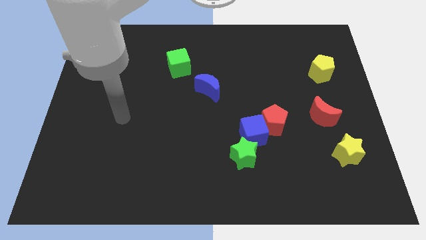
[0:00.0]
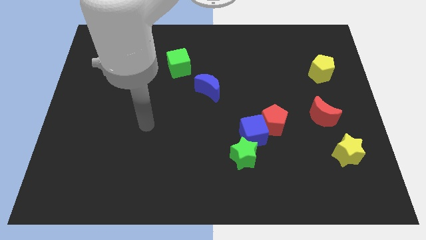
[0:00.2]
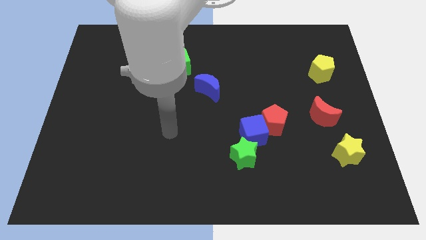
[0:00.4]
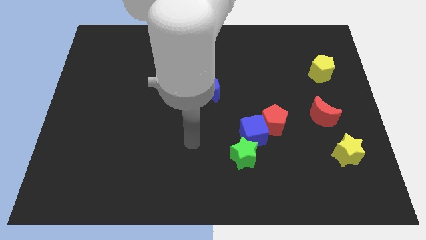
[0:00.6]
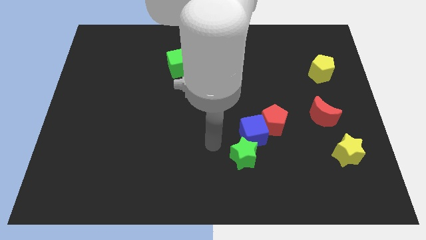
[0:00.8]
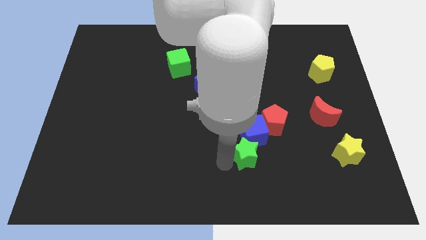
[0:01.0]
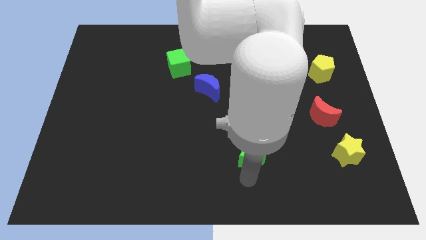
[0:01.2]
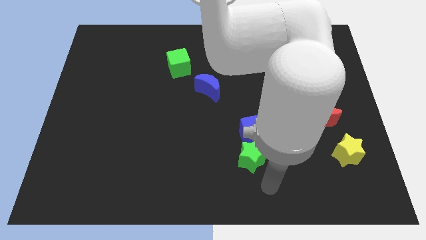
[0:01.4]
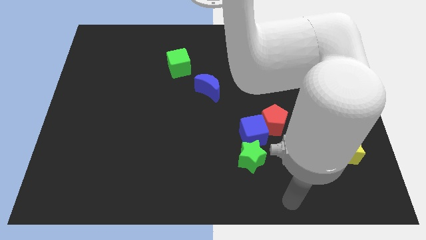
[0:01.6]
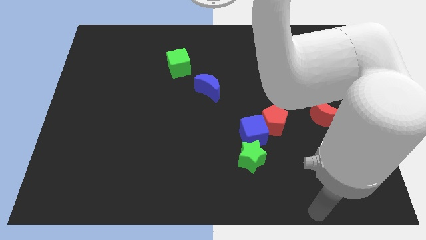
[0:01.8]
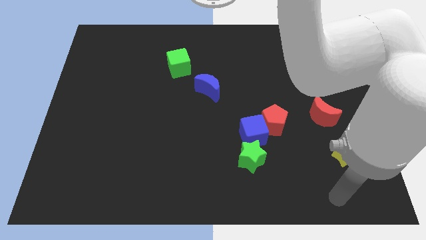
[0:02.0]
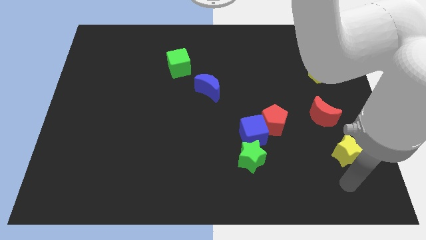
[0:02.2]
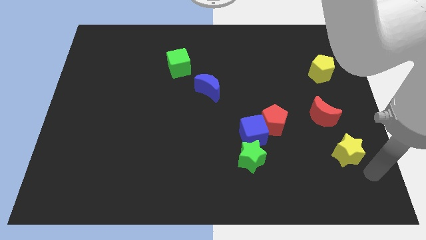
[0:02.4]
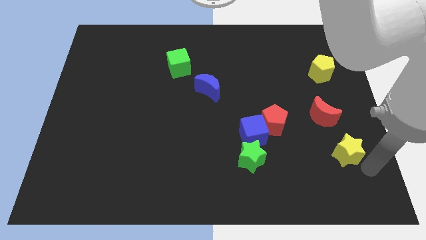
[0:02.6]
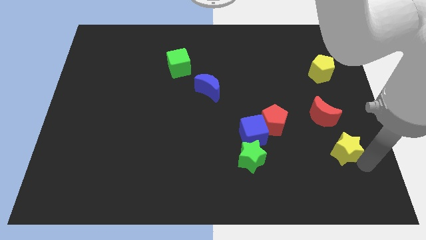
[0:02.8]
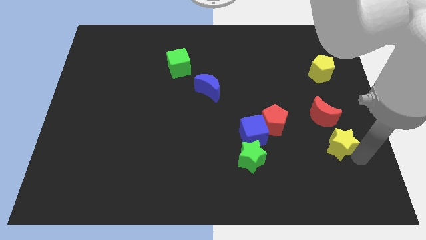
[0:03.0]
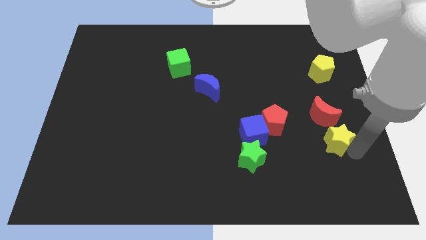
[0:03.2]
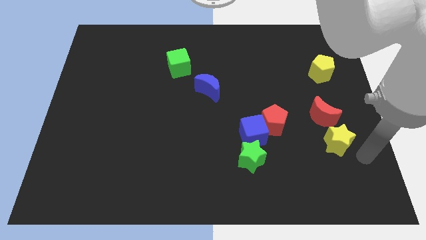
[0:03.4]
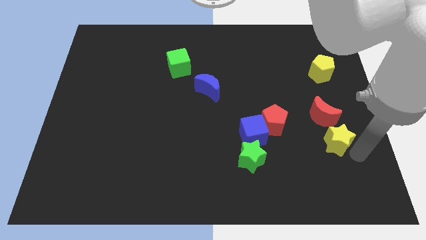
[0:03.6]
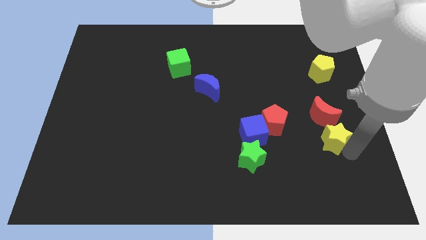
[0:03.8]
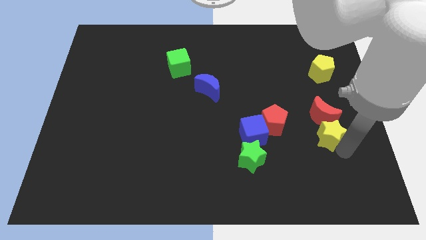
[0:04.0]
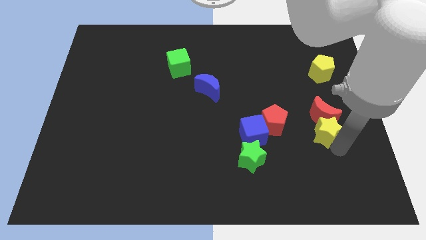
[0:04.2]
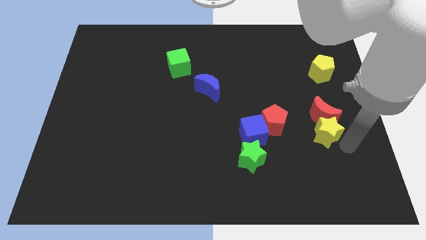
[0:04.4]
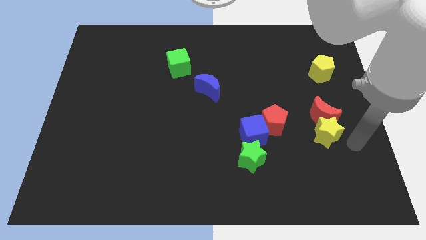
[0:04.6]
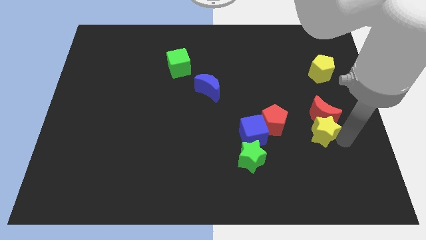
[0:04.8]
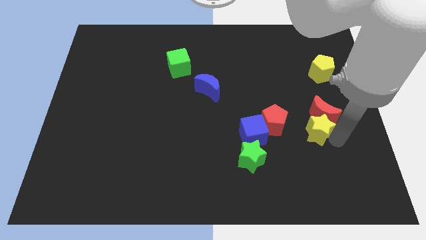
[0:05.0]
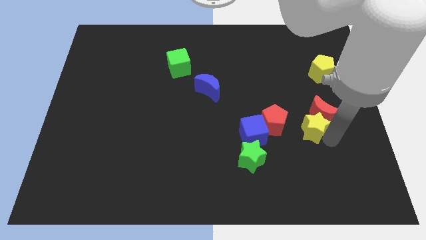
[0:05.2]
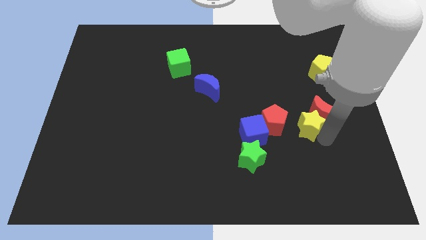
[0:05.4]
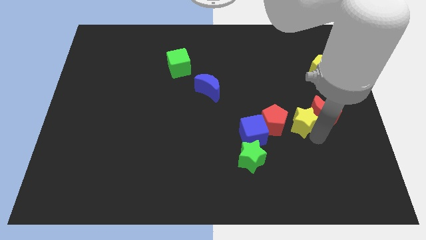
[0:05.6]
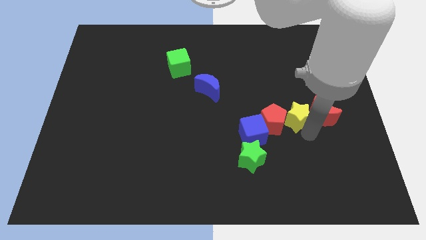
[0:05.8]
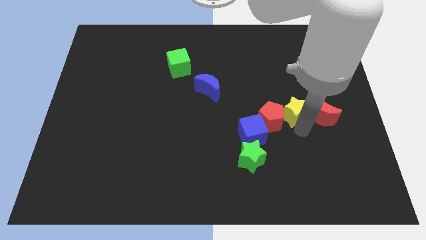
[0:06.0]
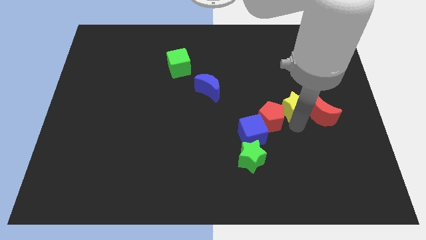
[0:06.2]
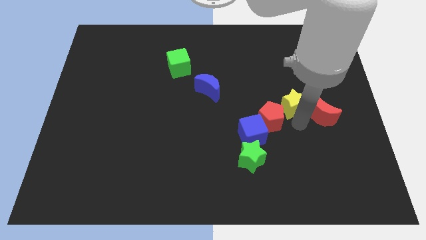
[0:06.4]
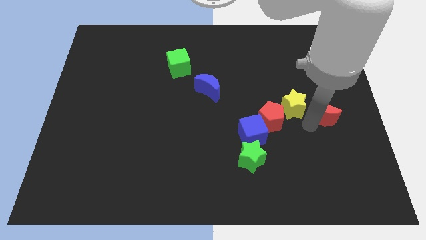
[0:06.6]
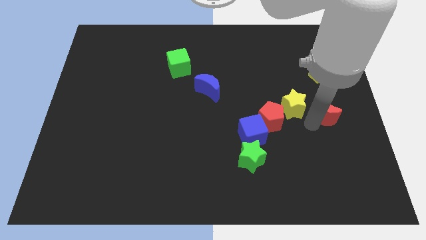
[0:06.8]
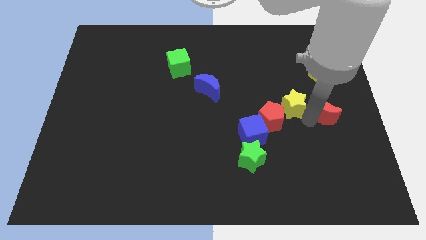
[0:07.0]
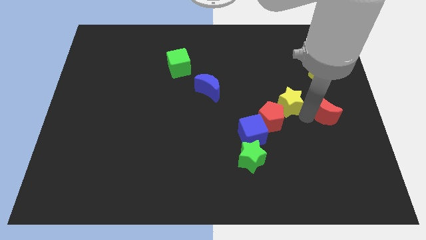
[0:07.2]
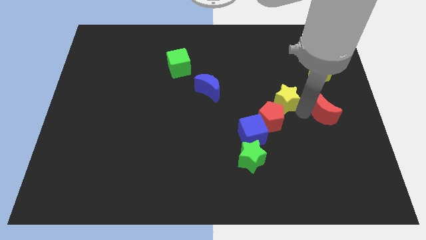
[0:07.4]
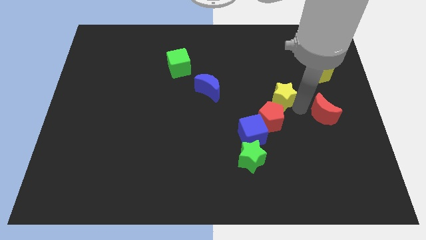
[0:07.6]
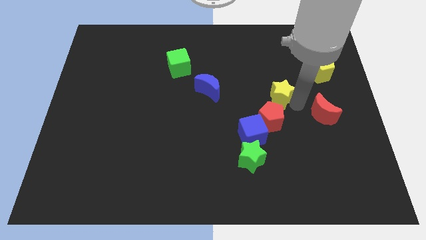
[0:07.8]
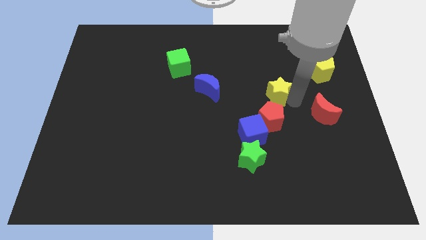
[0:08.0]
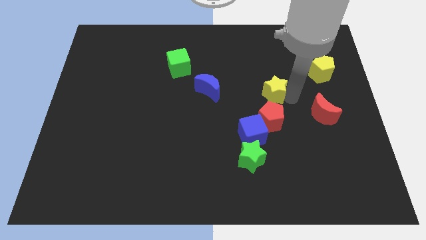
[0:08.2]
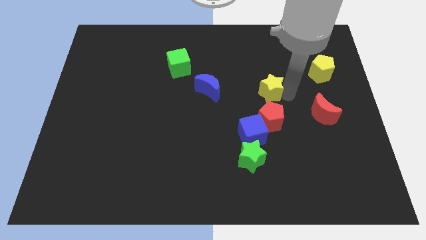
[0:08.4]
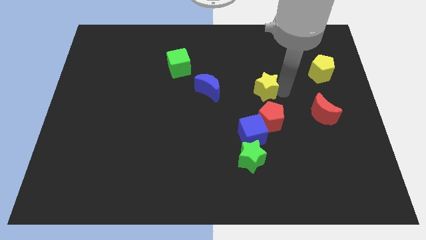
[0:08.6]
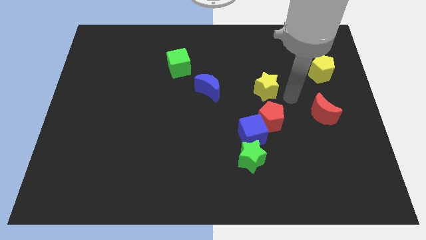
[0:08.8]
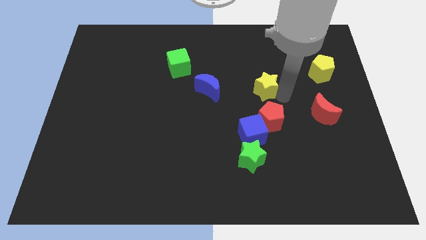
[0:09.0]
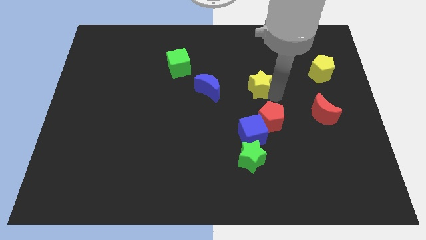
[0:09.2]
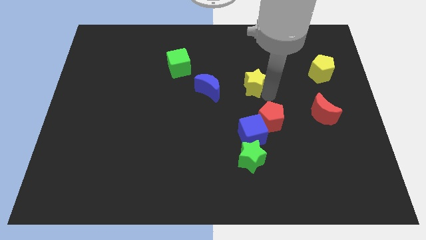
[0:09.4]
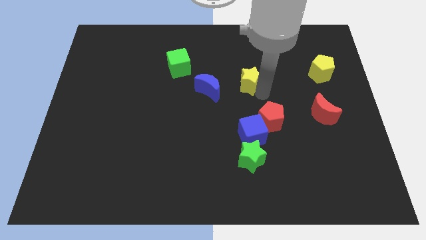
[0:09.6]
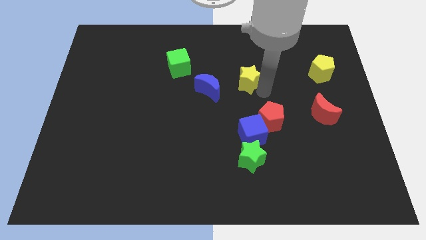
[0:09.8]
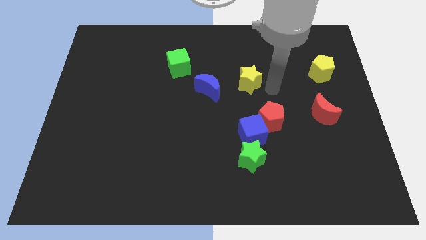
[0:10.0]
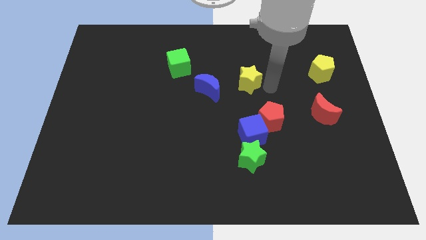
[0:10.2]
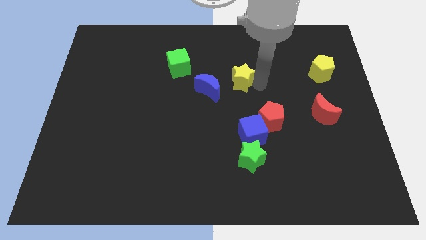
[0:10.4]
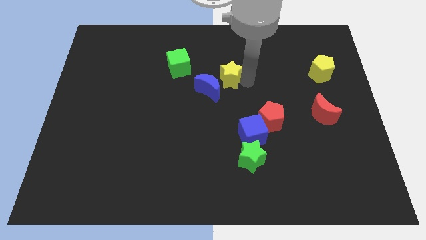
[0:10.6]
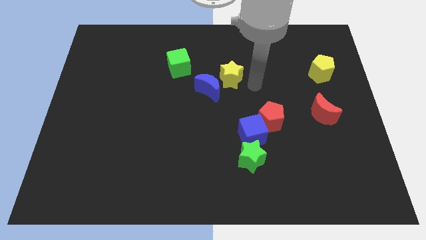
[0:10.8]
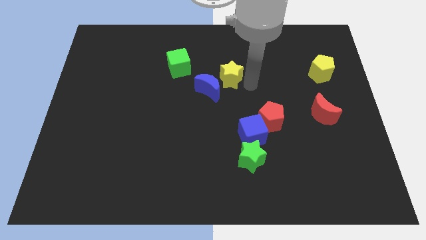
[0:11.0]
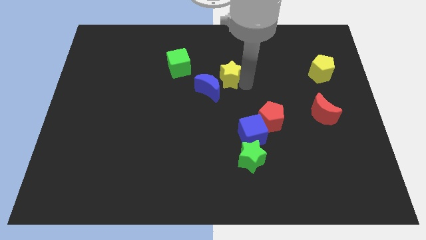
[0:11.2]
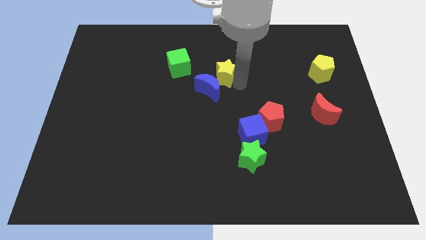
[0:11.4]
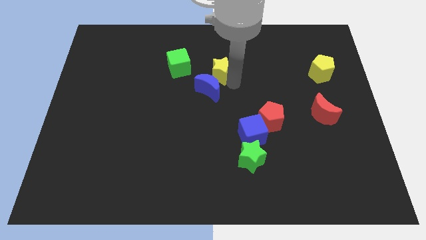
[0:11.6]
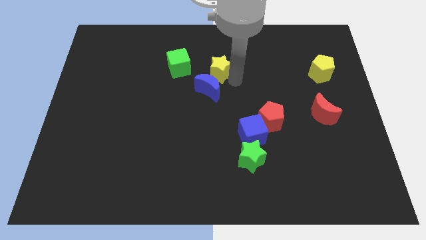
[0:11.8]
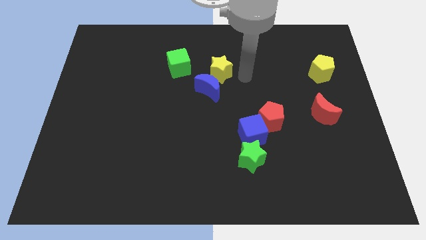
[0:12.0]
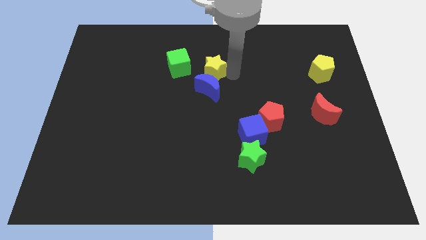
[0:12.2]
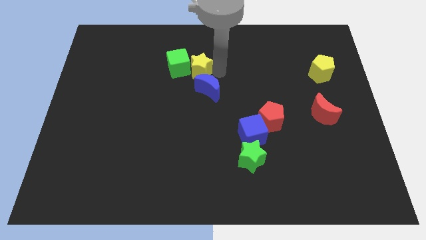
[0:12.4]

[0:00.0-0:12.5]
push the yellow star close to the green cube

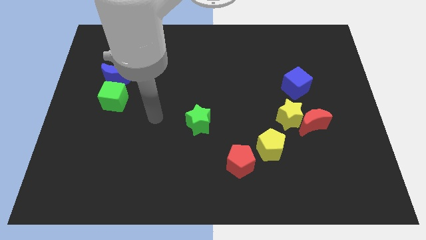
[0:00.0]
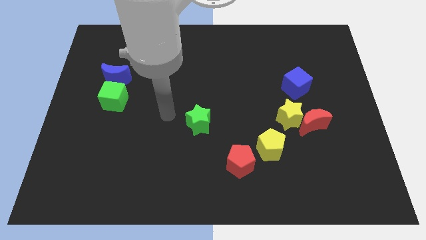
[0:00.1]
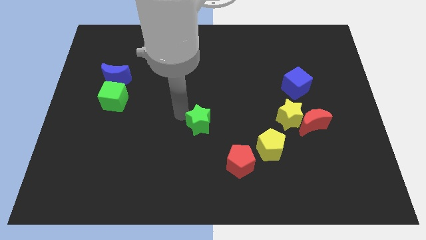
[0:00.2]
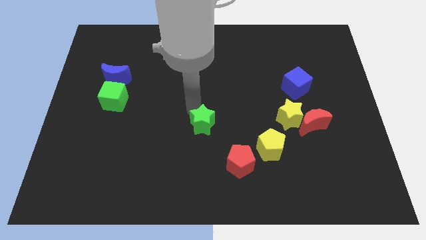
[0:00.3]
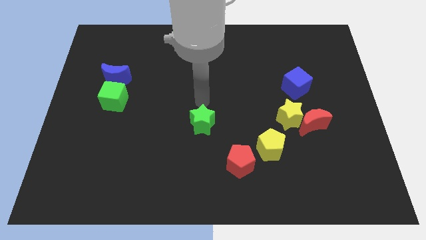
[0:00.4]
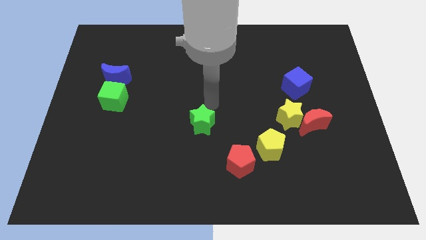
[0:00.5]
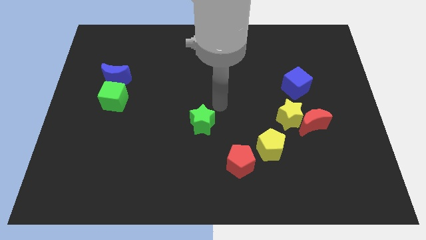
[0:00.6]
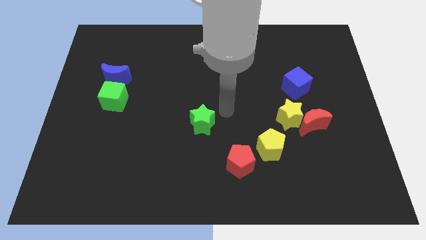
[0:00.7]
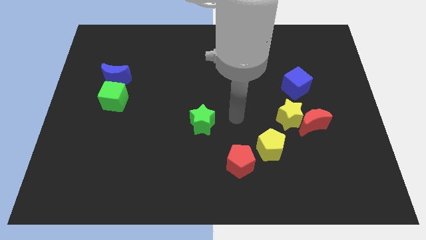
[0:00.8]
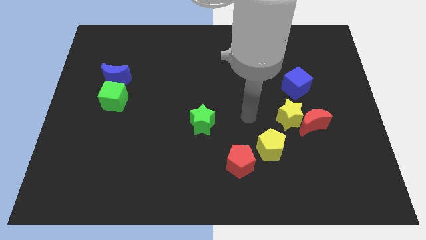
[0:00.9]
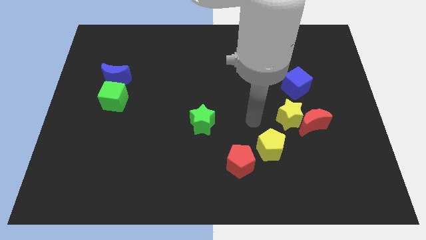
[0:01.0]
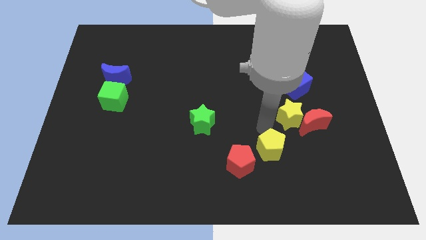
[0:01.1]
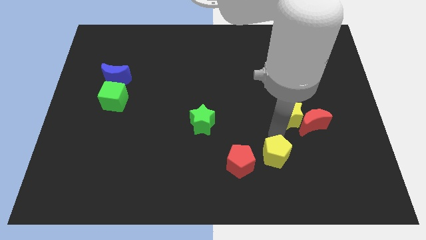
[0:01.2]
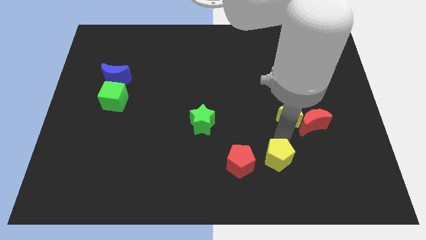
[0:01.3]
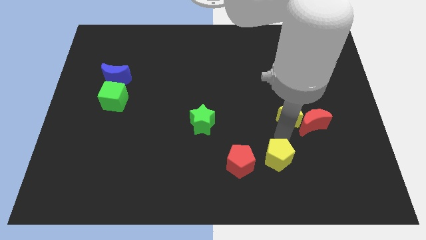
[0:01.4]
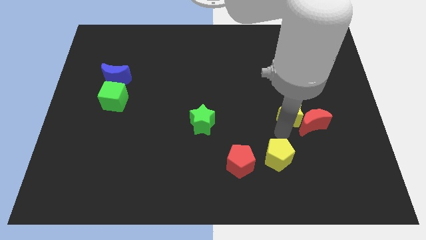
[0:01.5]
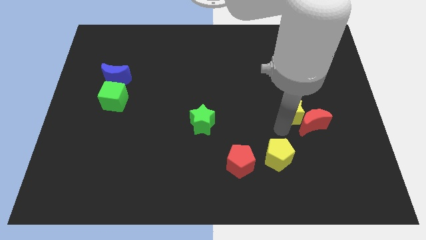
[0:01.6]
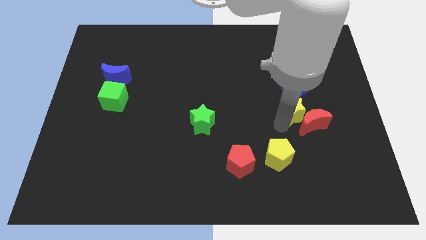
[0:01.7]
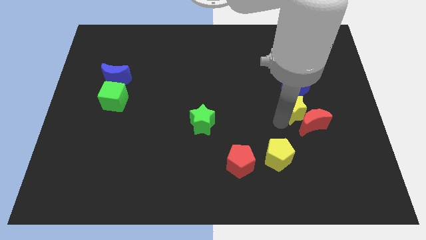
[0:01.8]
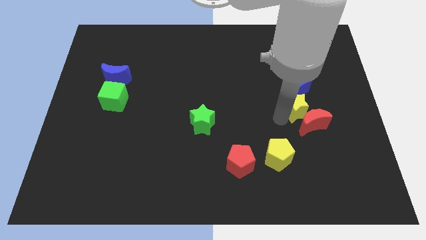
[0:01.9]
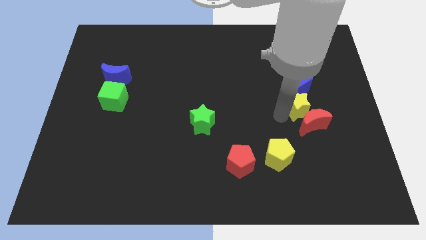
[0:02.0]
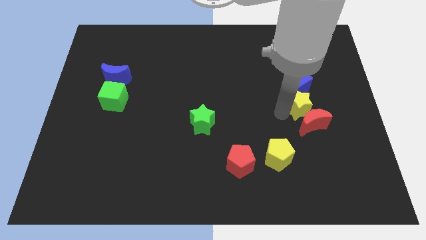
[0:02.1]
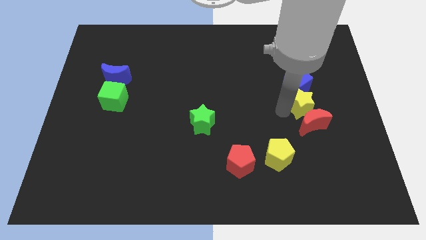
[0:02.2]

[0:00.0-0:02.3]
push the yellow star next to the blue cube
